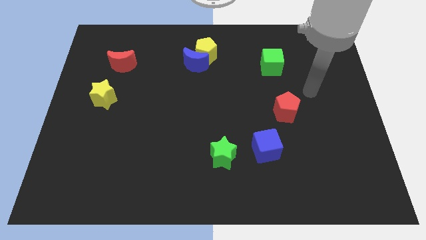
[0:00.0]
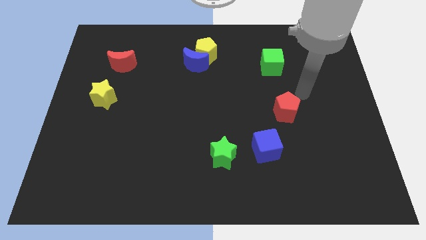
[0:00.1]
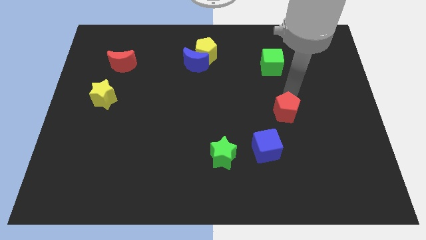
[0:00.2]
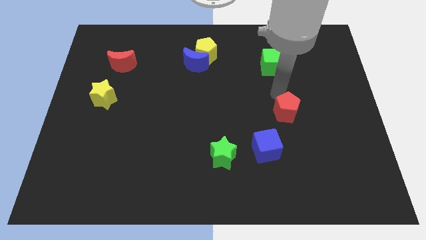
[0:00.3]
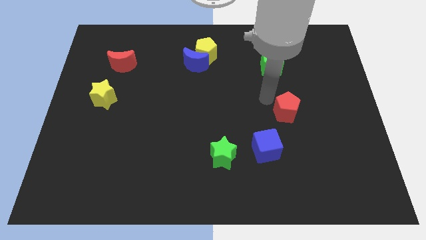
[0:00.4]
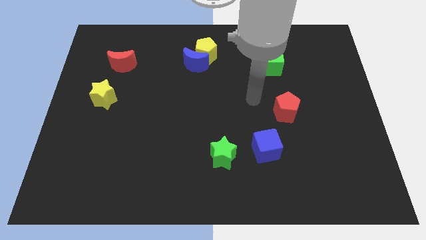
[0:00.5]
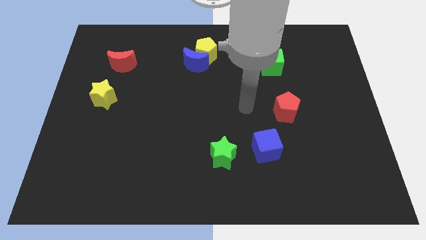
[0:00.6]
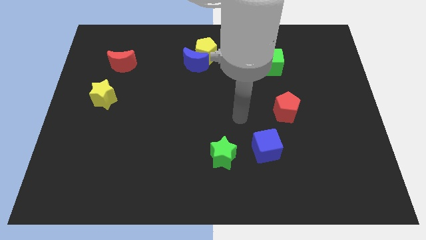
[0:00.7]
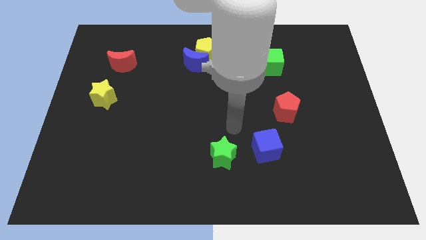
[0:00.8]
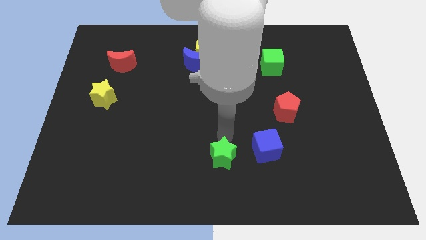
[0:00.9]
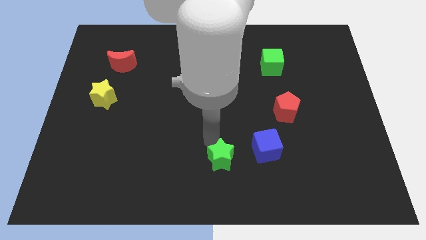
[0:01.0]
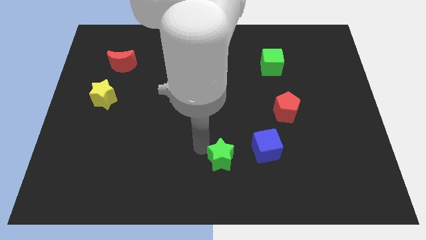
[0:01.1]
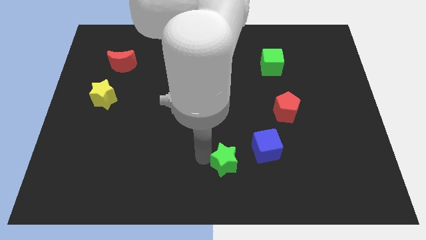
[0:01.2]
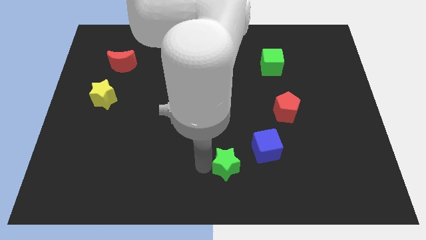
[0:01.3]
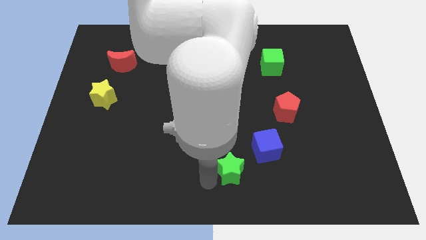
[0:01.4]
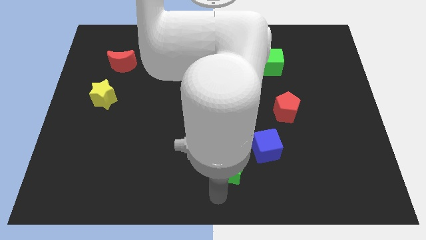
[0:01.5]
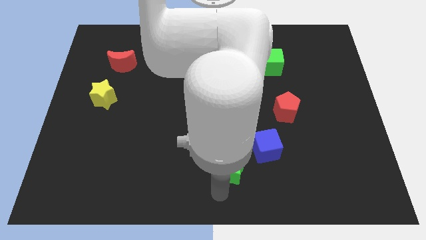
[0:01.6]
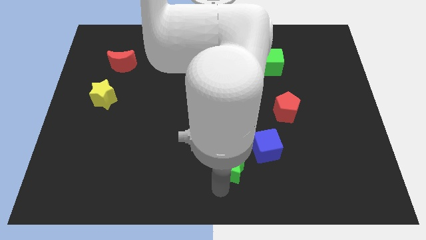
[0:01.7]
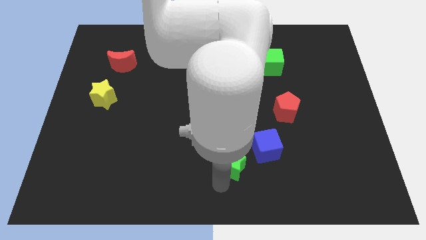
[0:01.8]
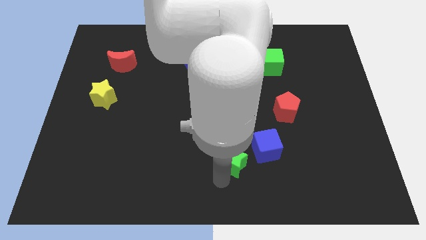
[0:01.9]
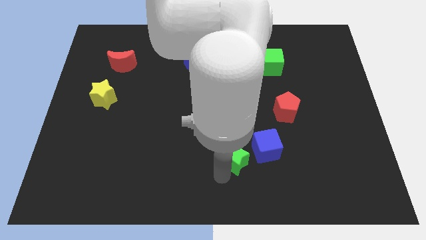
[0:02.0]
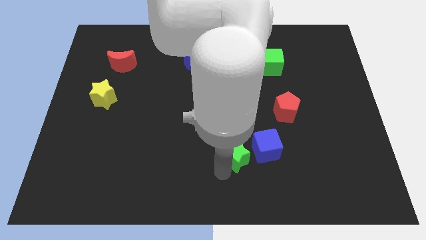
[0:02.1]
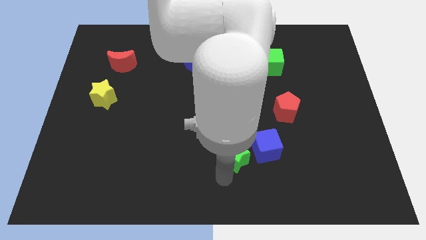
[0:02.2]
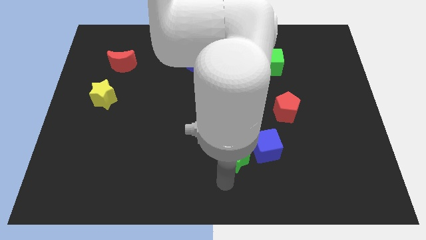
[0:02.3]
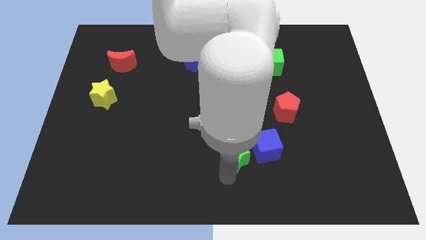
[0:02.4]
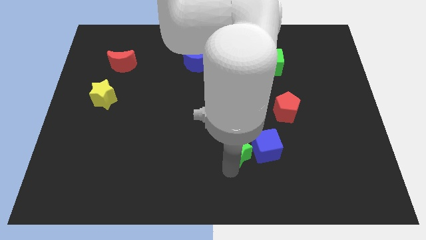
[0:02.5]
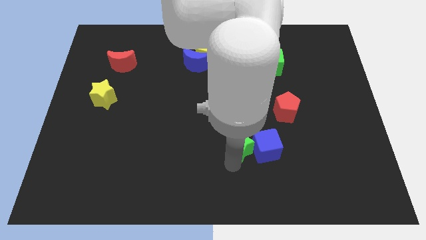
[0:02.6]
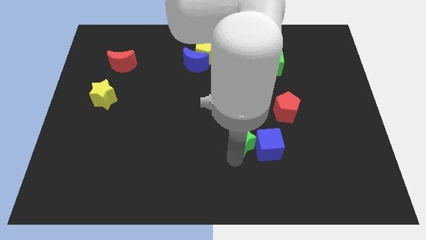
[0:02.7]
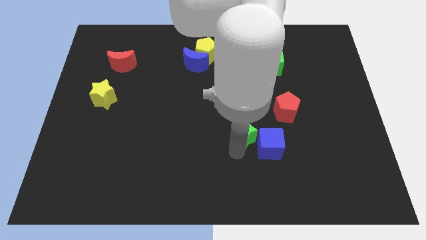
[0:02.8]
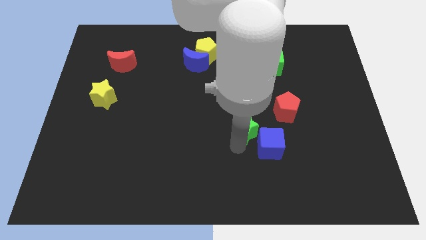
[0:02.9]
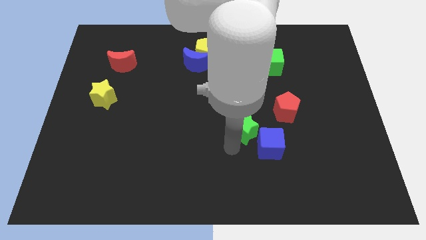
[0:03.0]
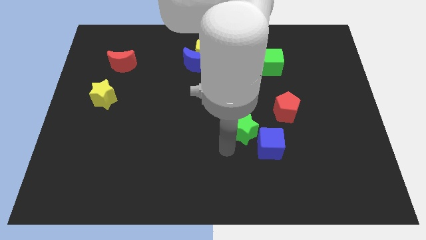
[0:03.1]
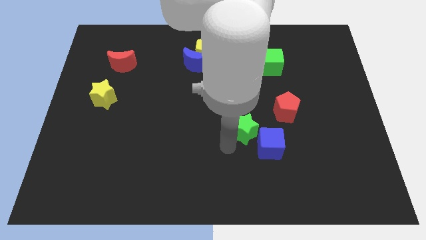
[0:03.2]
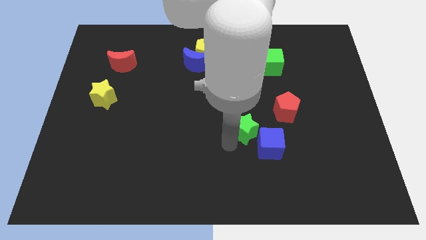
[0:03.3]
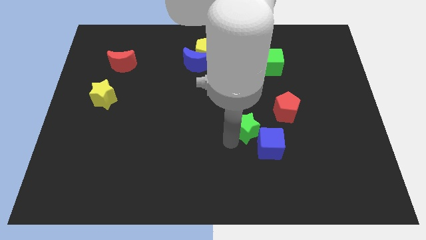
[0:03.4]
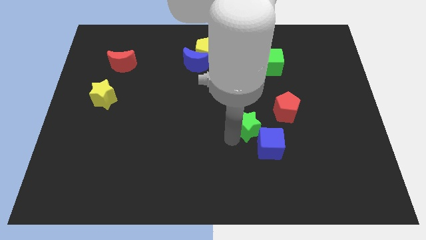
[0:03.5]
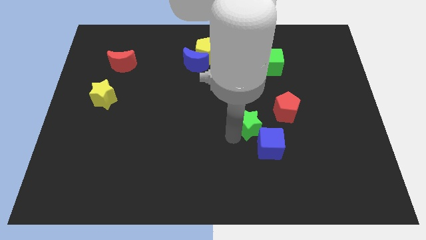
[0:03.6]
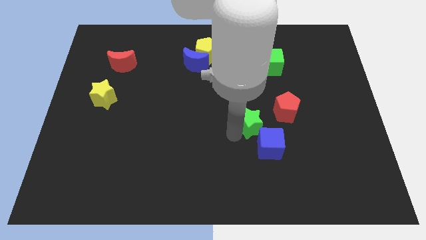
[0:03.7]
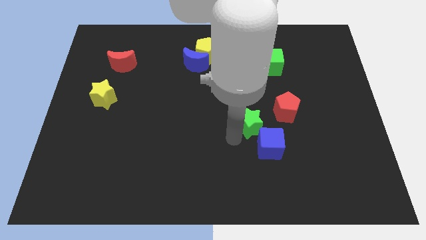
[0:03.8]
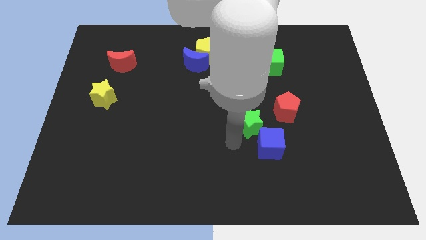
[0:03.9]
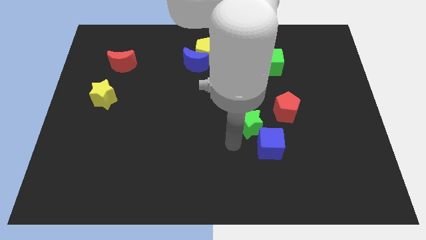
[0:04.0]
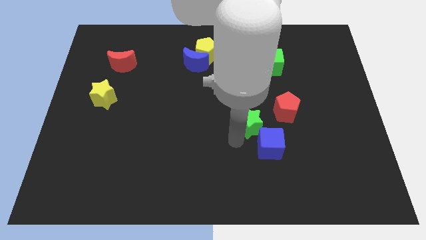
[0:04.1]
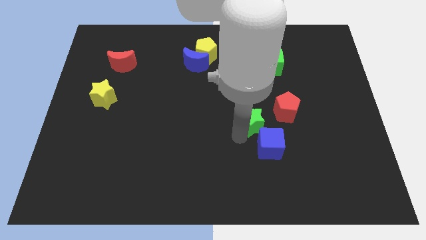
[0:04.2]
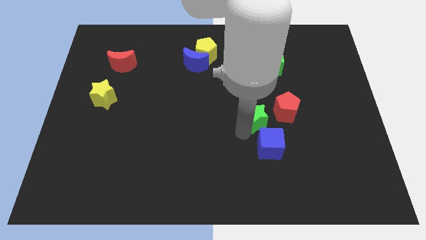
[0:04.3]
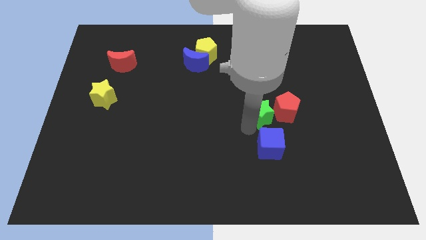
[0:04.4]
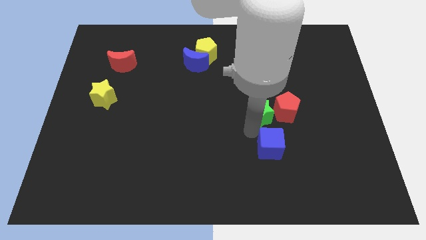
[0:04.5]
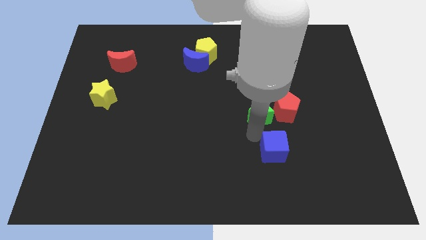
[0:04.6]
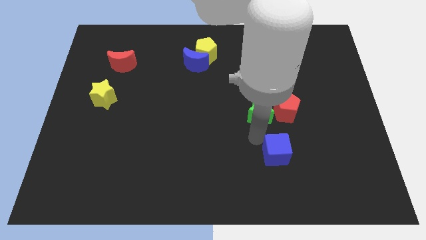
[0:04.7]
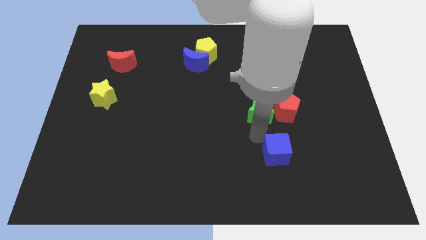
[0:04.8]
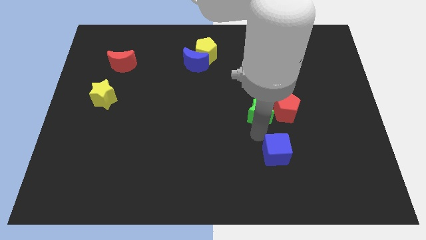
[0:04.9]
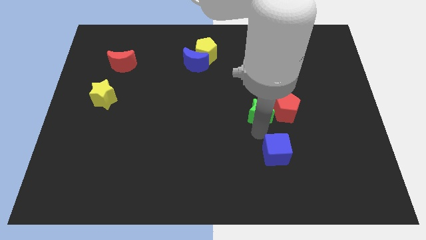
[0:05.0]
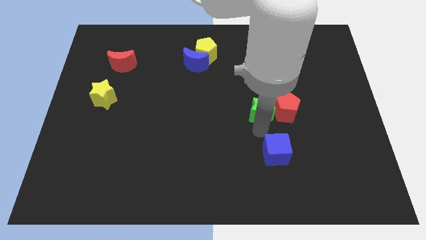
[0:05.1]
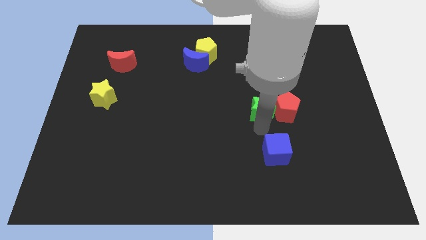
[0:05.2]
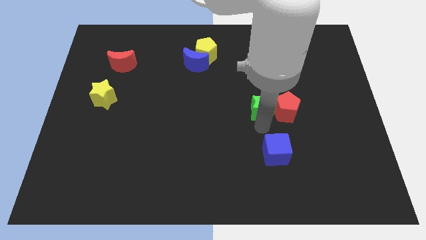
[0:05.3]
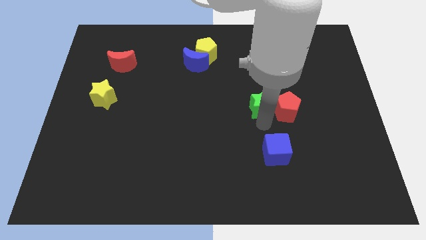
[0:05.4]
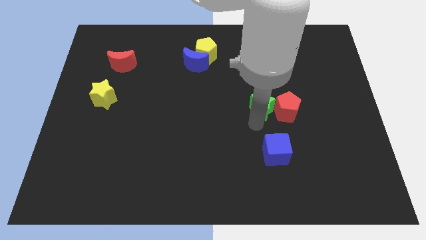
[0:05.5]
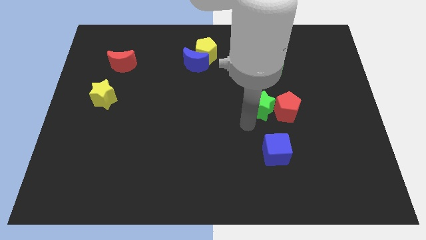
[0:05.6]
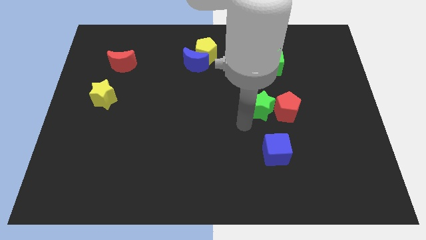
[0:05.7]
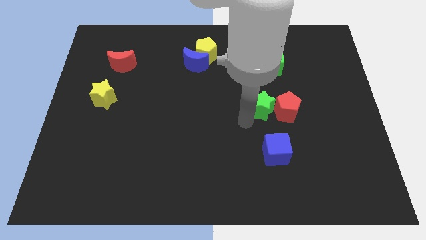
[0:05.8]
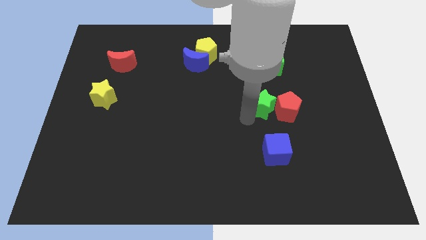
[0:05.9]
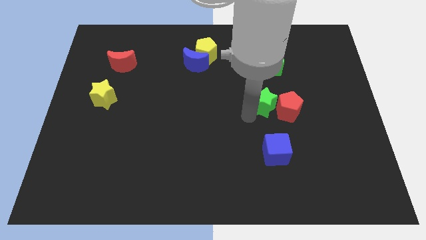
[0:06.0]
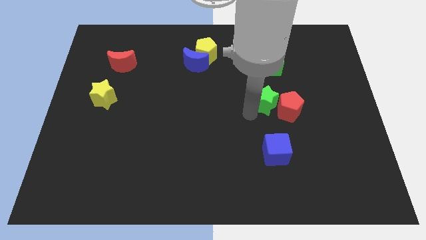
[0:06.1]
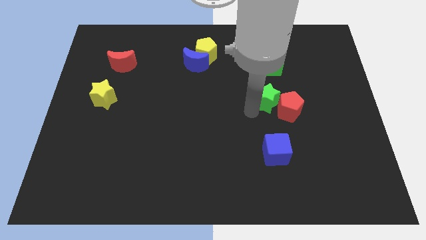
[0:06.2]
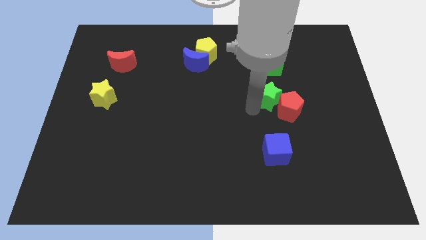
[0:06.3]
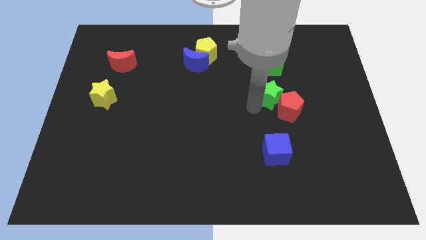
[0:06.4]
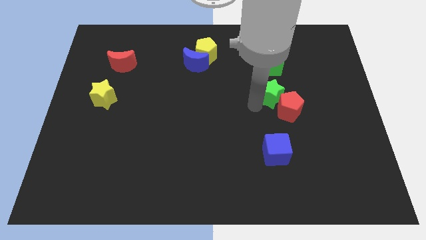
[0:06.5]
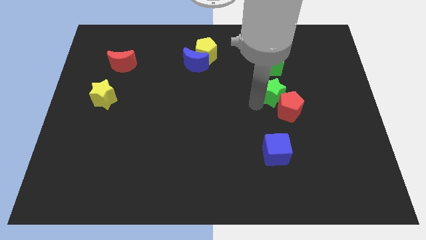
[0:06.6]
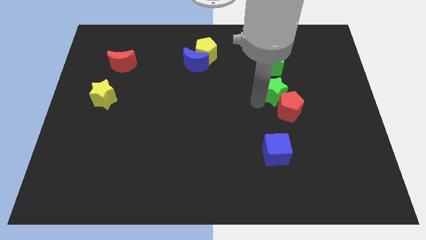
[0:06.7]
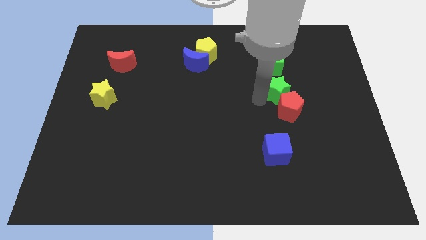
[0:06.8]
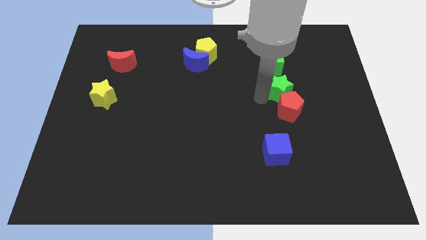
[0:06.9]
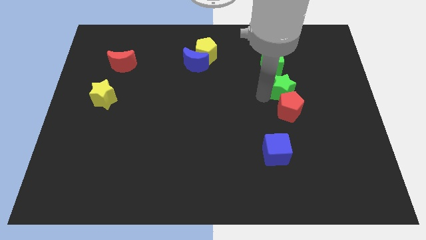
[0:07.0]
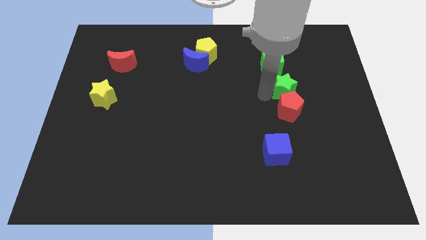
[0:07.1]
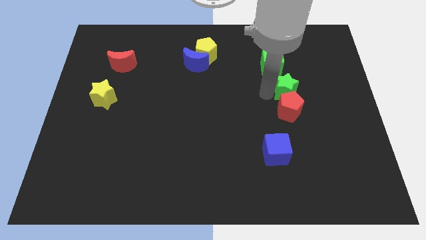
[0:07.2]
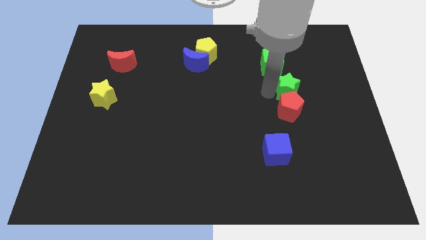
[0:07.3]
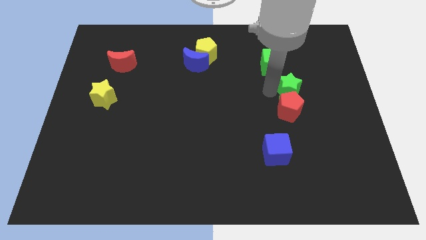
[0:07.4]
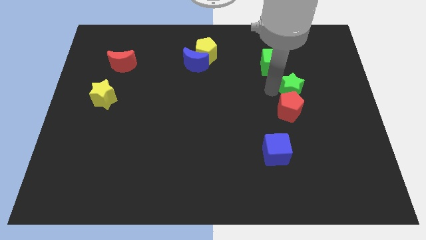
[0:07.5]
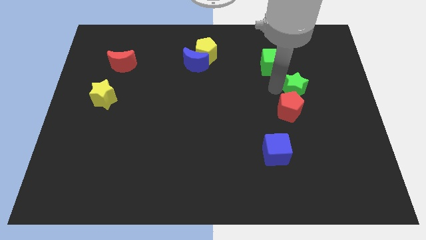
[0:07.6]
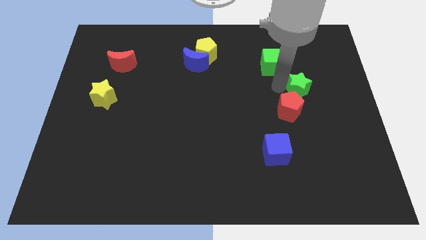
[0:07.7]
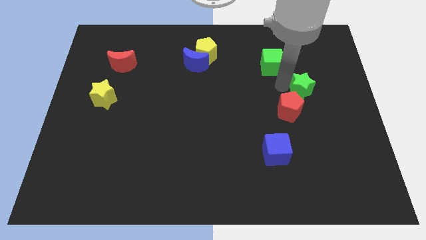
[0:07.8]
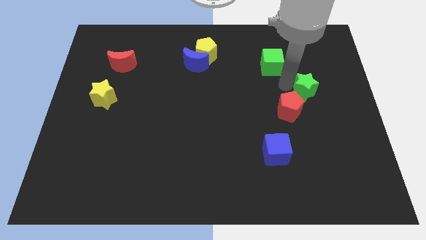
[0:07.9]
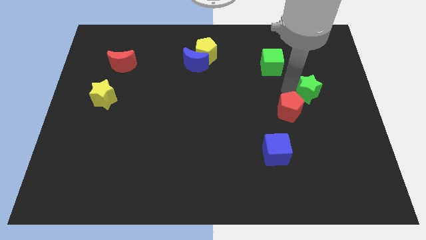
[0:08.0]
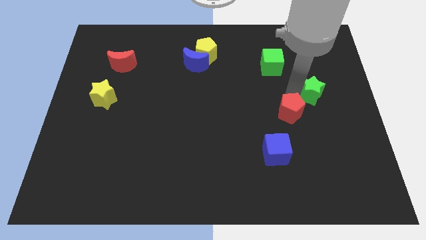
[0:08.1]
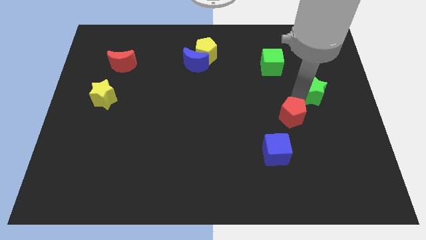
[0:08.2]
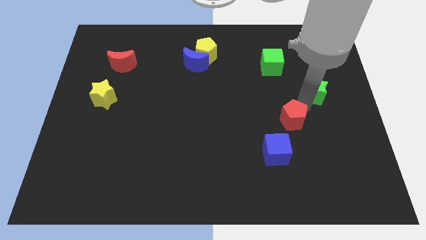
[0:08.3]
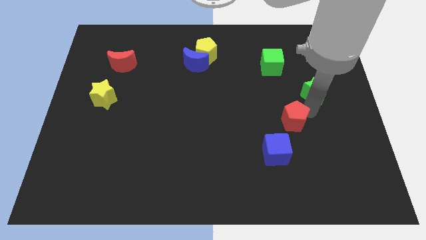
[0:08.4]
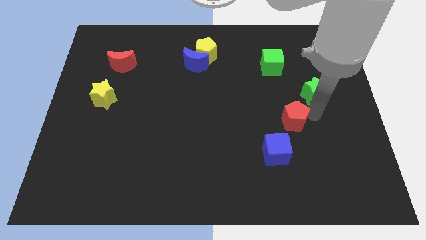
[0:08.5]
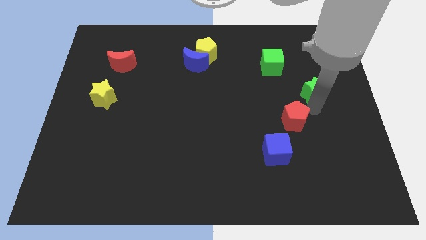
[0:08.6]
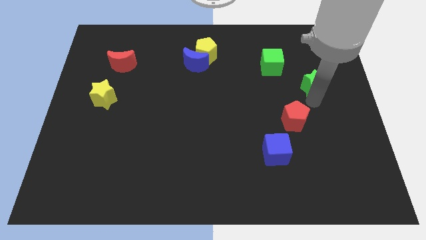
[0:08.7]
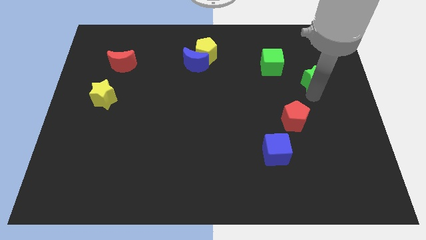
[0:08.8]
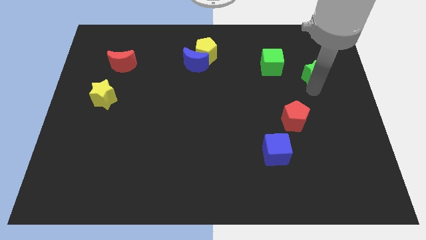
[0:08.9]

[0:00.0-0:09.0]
slide the green star just right of the green cube
